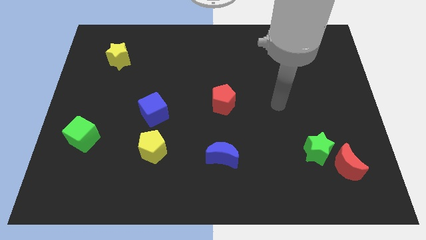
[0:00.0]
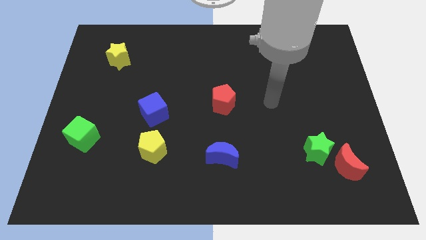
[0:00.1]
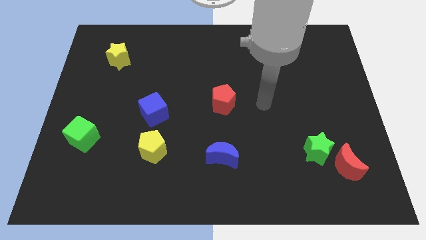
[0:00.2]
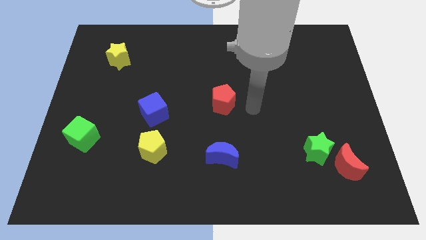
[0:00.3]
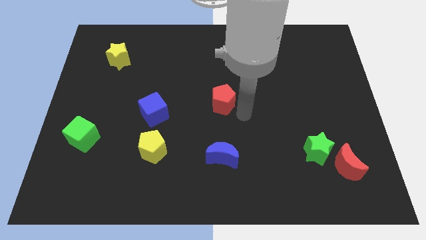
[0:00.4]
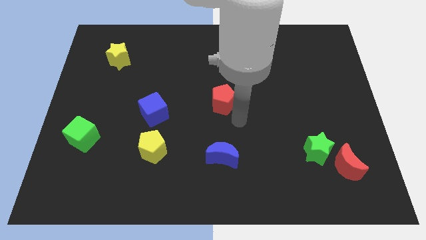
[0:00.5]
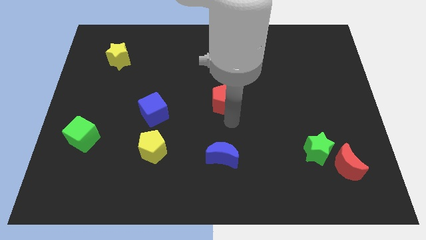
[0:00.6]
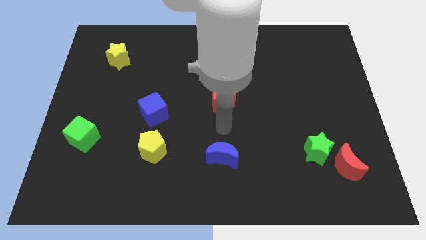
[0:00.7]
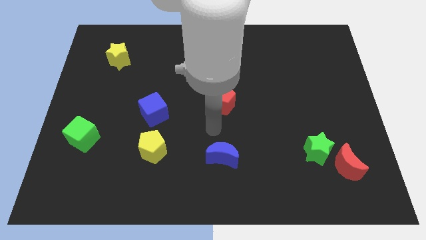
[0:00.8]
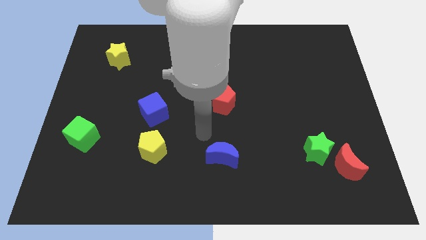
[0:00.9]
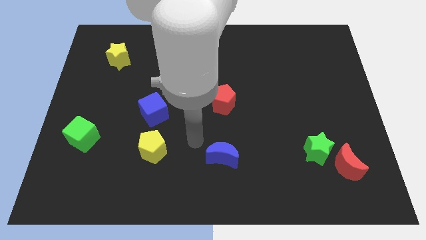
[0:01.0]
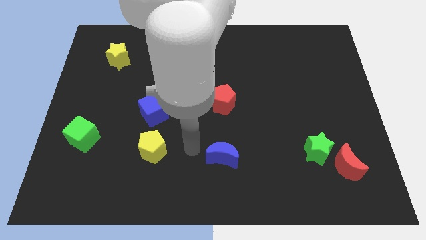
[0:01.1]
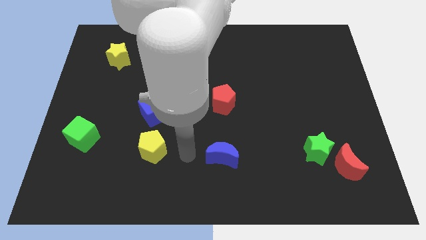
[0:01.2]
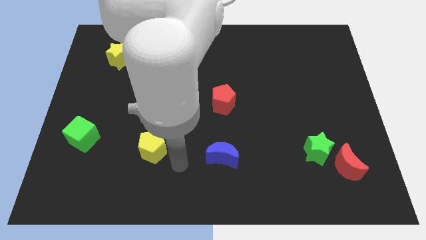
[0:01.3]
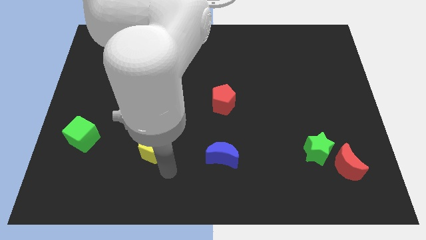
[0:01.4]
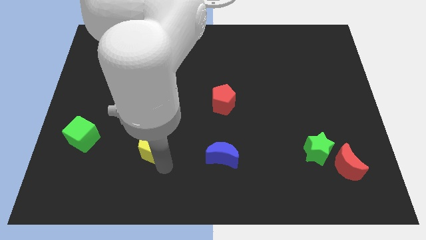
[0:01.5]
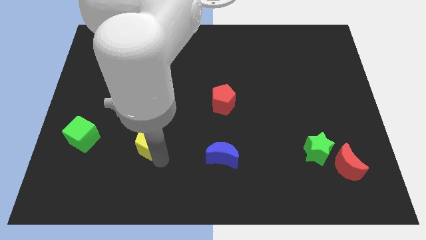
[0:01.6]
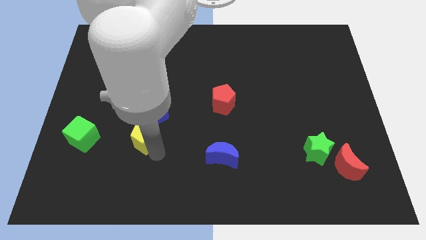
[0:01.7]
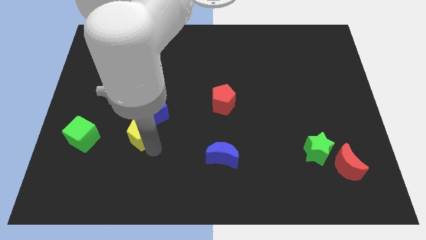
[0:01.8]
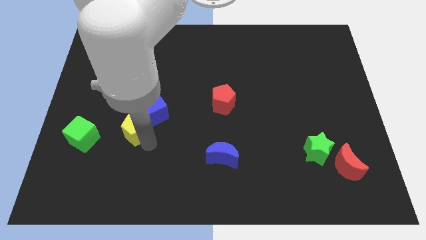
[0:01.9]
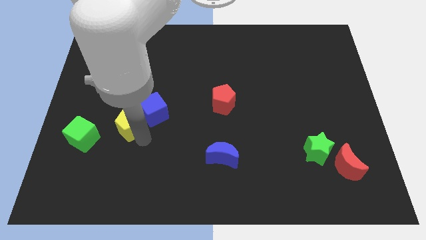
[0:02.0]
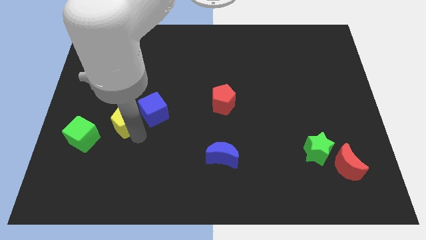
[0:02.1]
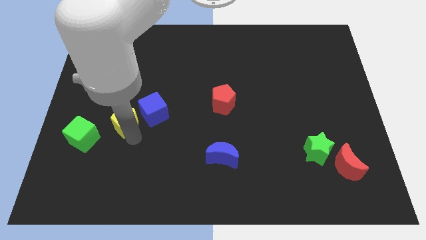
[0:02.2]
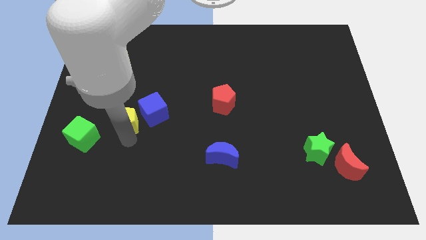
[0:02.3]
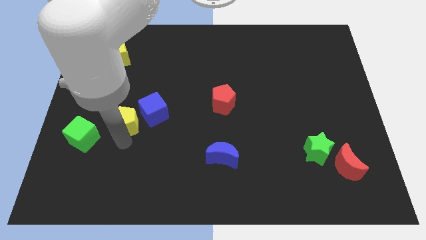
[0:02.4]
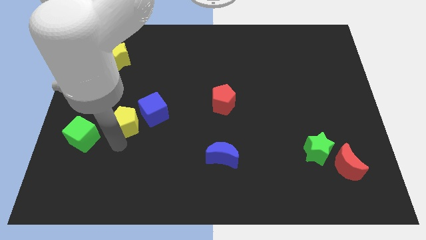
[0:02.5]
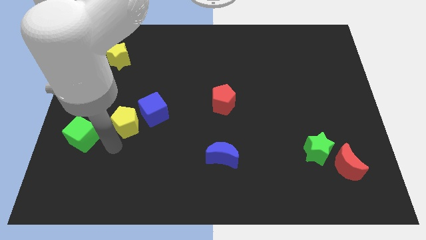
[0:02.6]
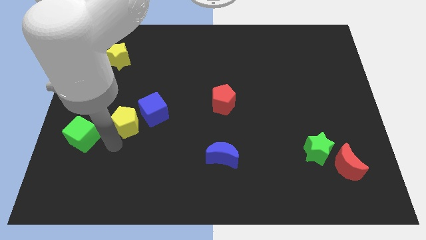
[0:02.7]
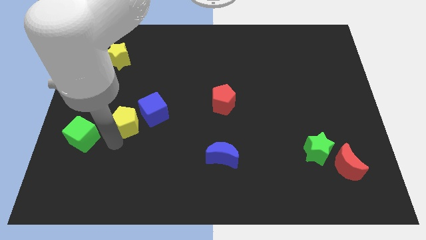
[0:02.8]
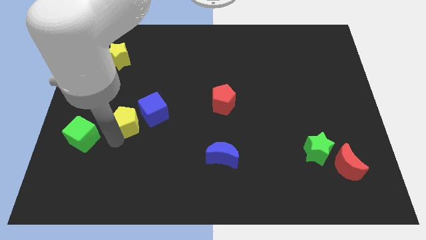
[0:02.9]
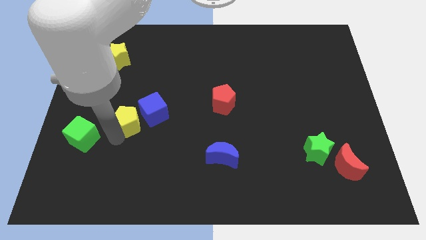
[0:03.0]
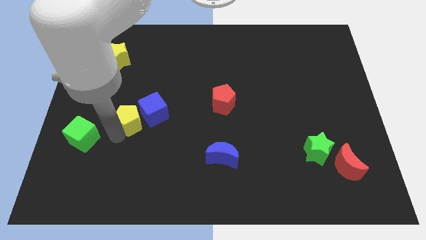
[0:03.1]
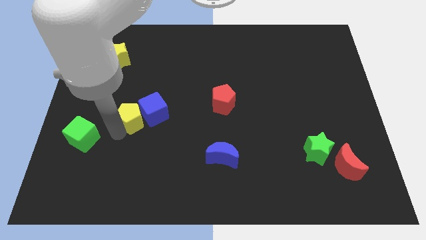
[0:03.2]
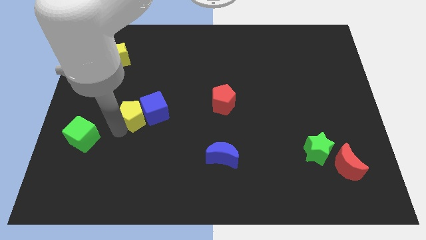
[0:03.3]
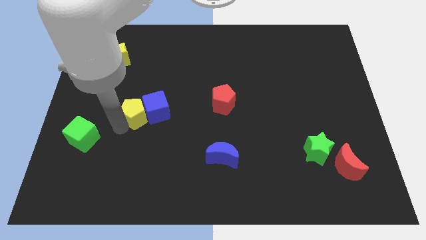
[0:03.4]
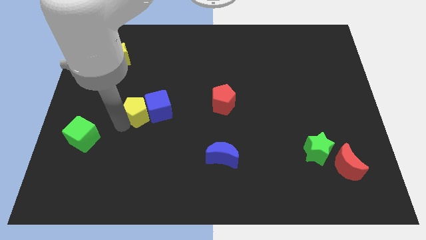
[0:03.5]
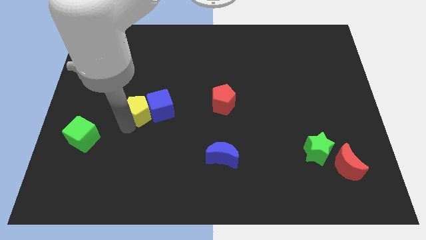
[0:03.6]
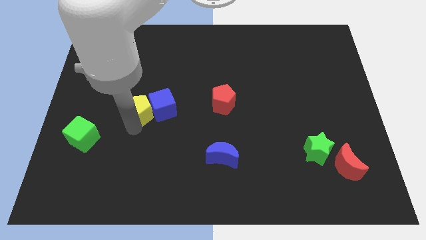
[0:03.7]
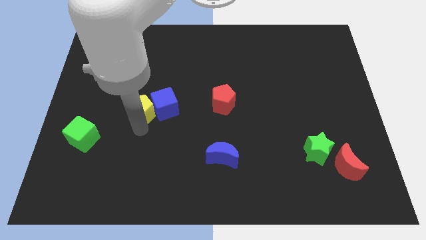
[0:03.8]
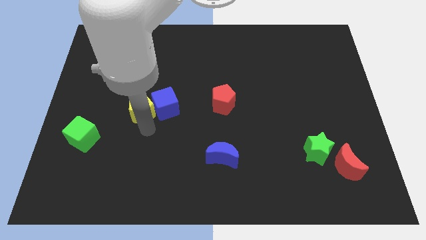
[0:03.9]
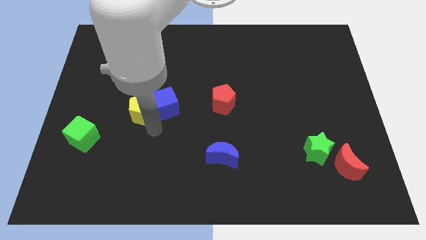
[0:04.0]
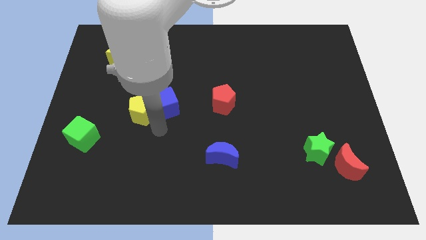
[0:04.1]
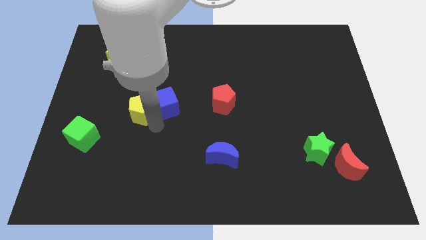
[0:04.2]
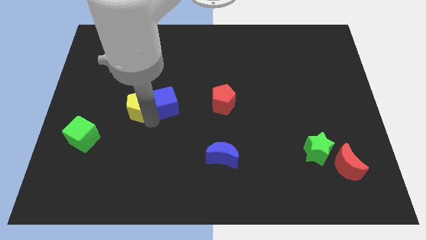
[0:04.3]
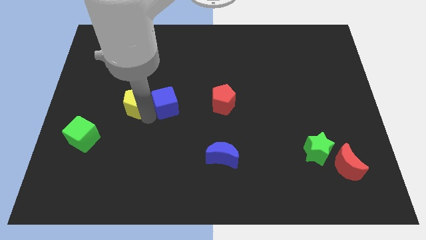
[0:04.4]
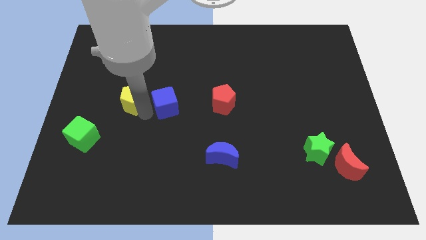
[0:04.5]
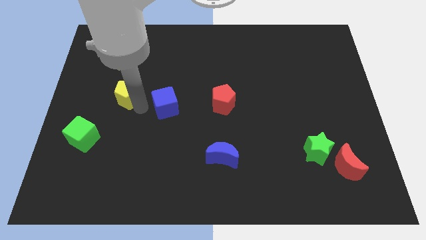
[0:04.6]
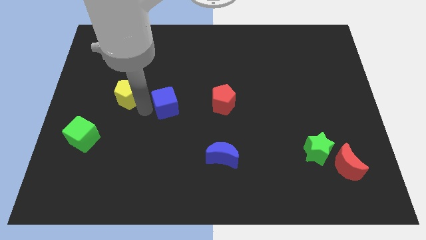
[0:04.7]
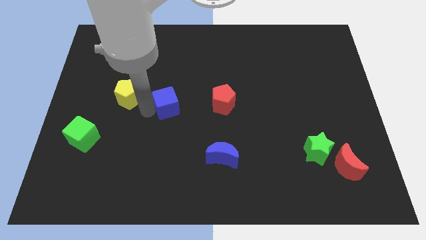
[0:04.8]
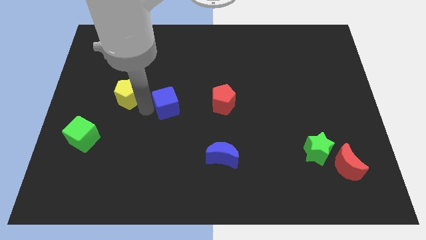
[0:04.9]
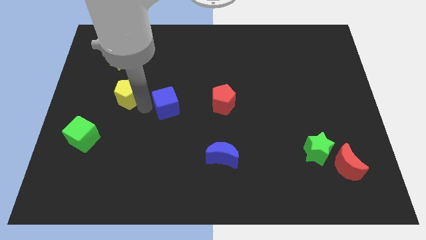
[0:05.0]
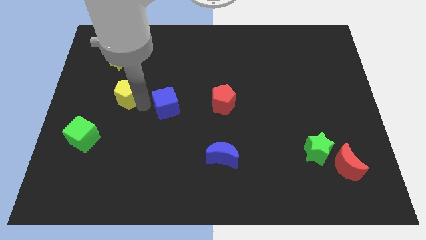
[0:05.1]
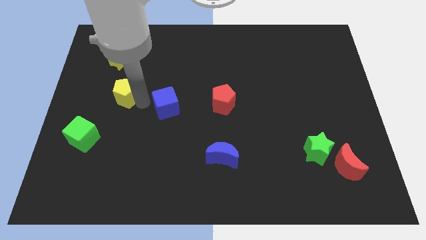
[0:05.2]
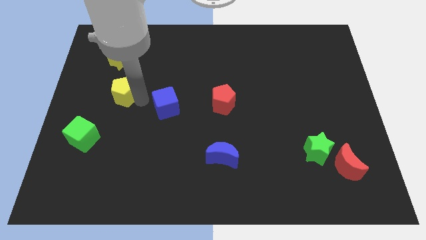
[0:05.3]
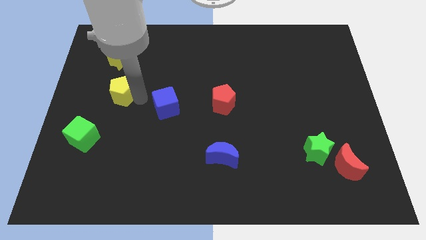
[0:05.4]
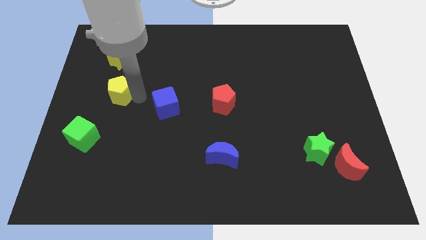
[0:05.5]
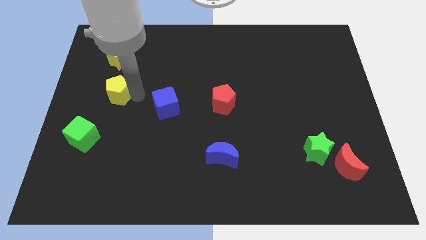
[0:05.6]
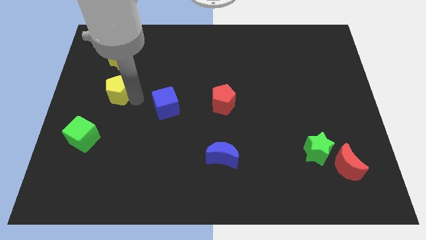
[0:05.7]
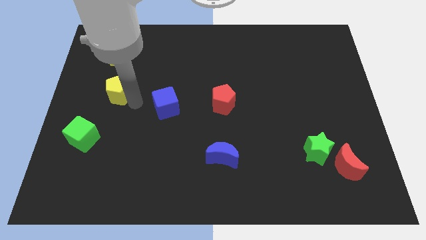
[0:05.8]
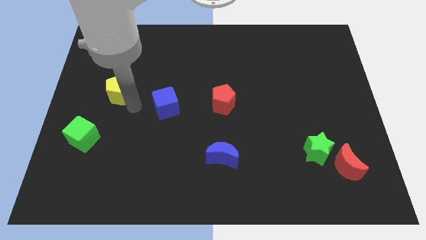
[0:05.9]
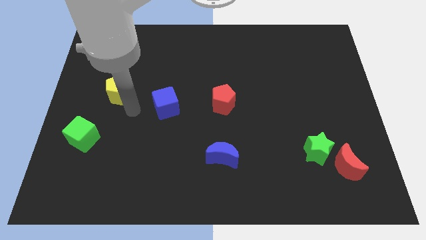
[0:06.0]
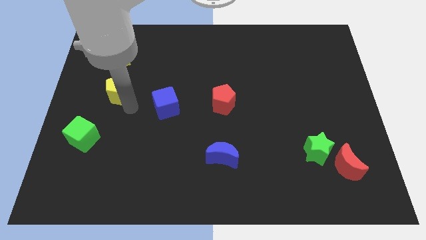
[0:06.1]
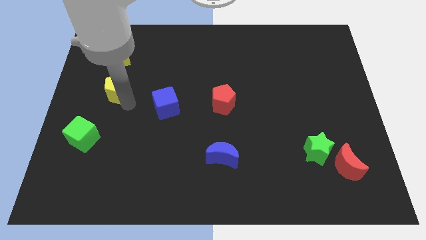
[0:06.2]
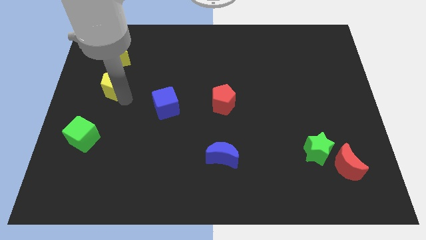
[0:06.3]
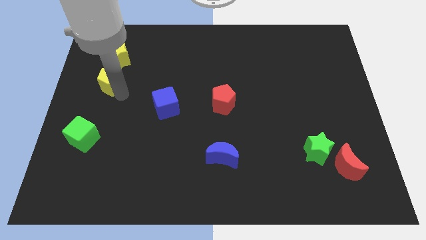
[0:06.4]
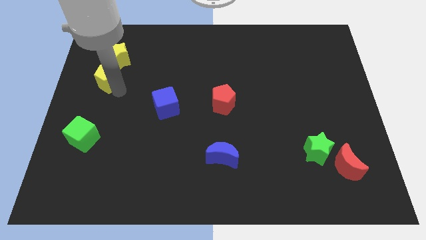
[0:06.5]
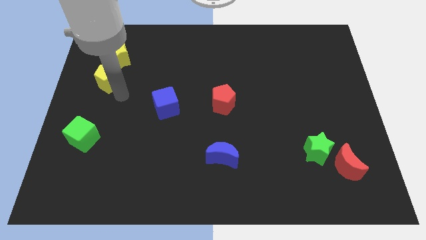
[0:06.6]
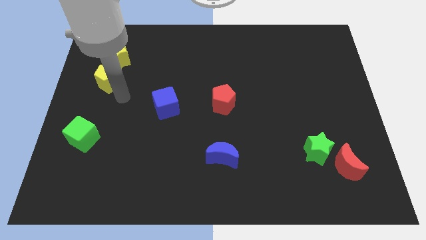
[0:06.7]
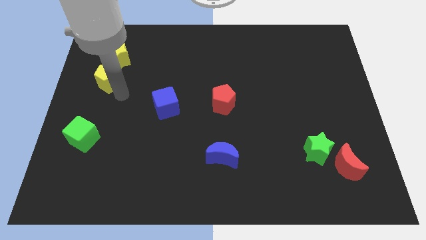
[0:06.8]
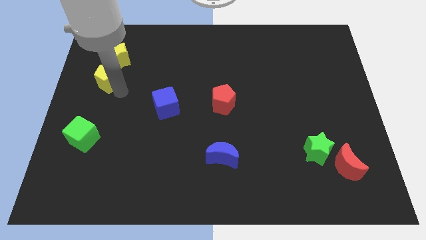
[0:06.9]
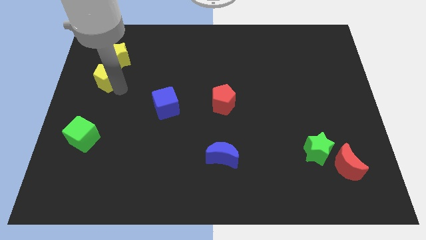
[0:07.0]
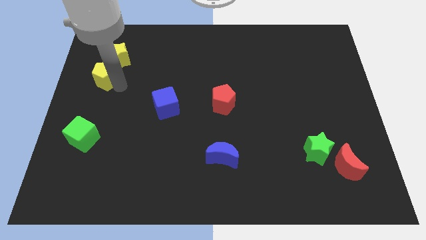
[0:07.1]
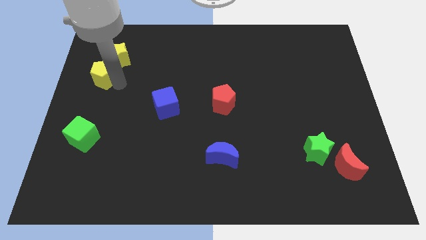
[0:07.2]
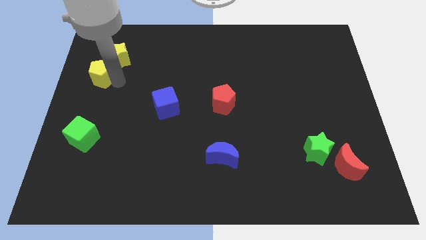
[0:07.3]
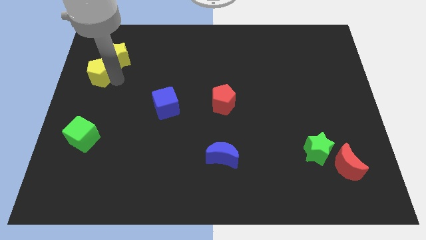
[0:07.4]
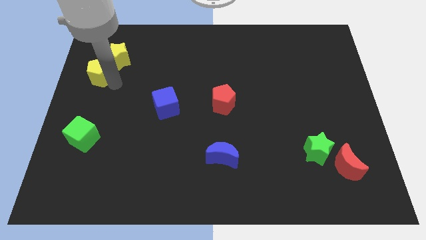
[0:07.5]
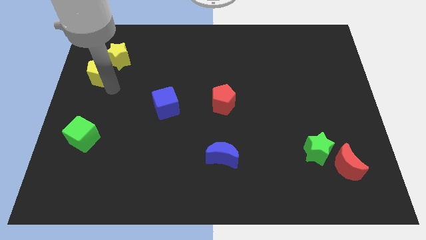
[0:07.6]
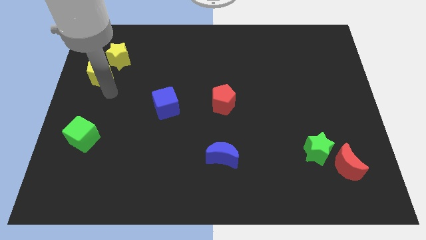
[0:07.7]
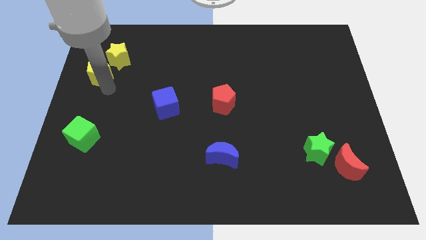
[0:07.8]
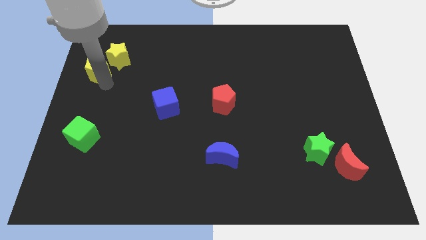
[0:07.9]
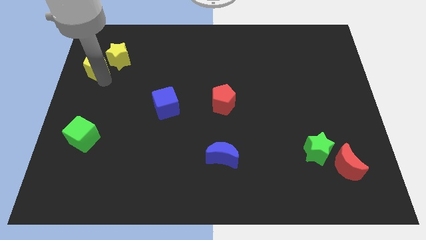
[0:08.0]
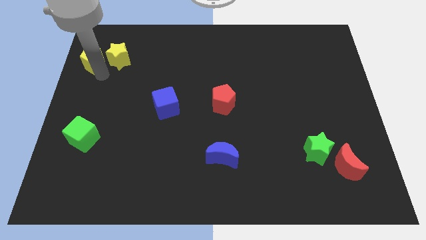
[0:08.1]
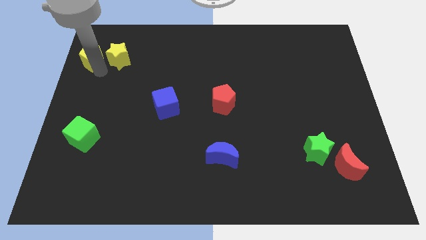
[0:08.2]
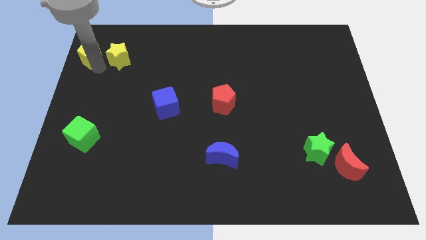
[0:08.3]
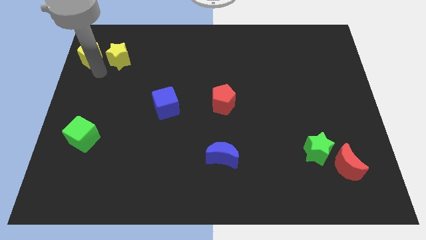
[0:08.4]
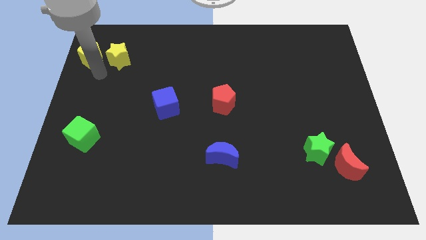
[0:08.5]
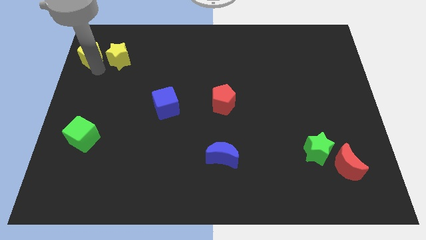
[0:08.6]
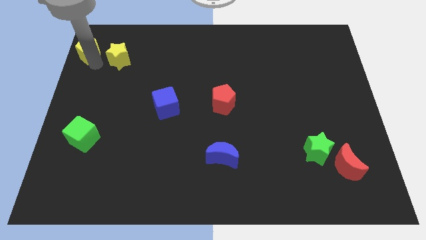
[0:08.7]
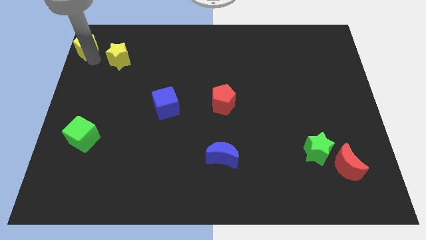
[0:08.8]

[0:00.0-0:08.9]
slide the yellow pentagon to the top left
